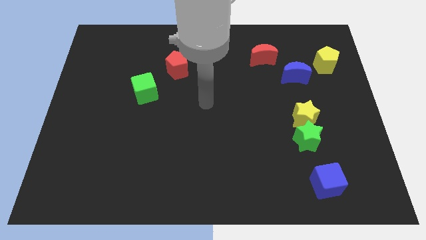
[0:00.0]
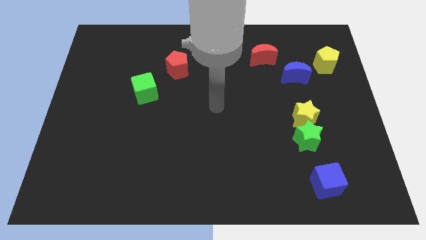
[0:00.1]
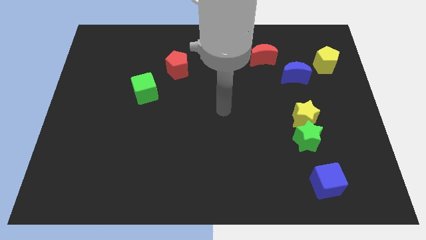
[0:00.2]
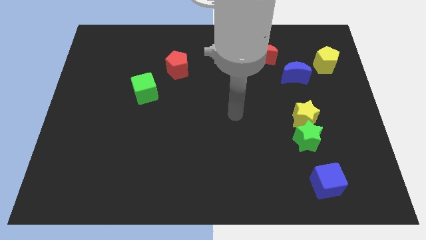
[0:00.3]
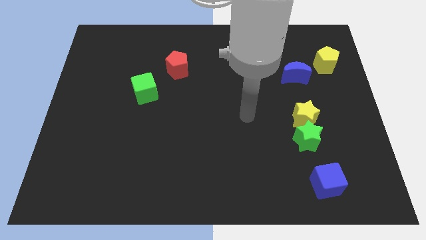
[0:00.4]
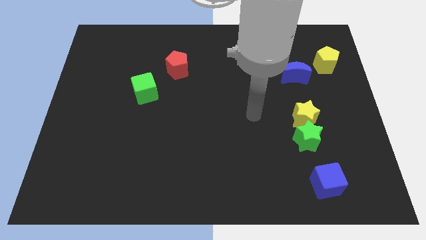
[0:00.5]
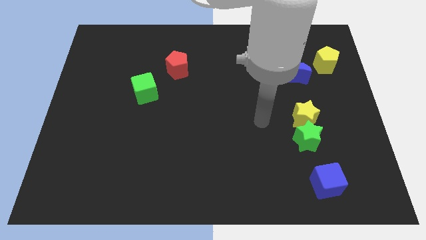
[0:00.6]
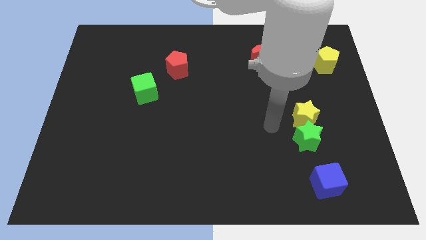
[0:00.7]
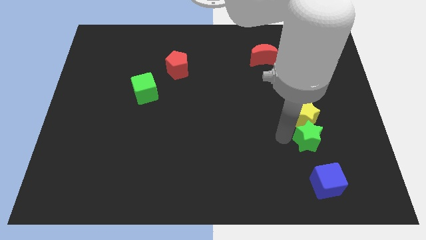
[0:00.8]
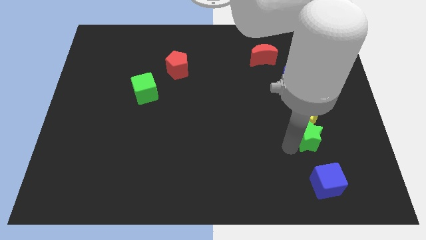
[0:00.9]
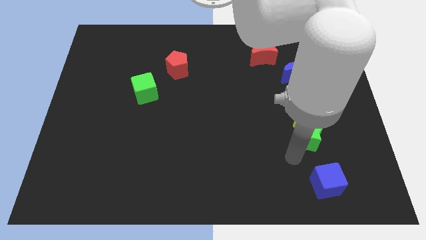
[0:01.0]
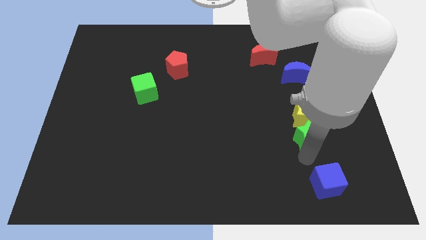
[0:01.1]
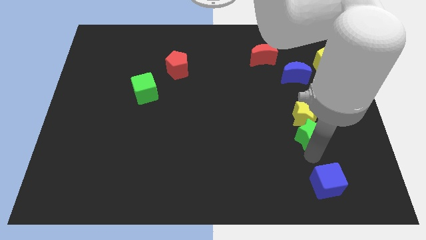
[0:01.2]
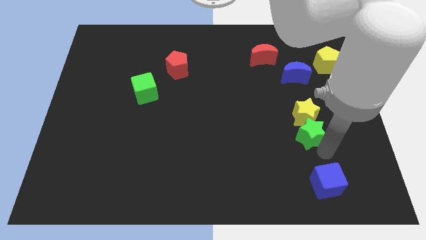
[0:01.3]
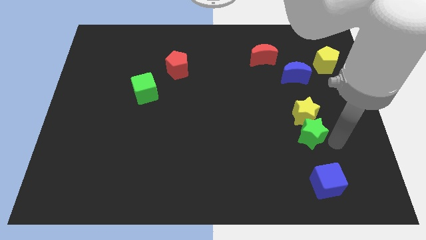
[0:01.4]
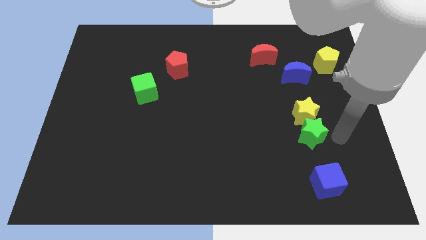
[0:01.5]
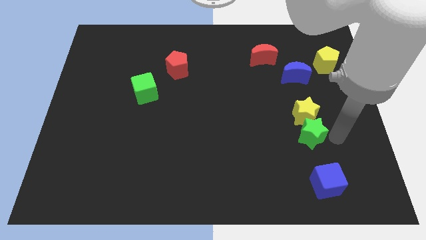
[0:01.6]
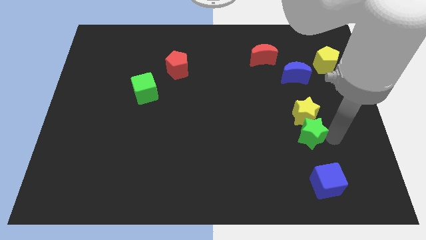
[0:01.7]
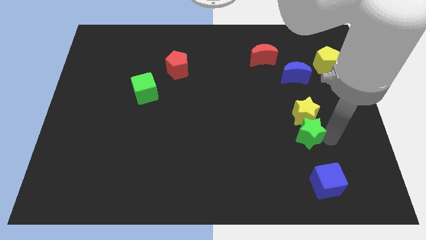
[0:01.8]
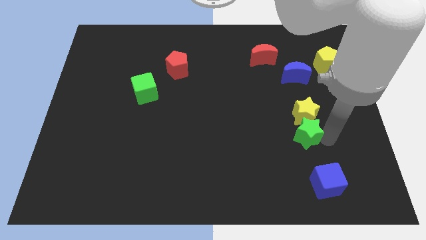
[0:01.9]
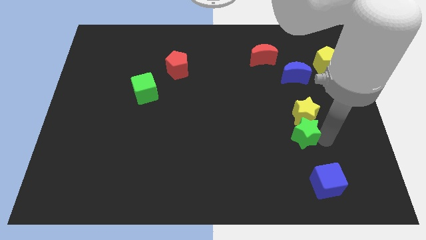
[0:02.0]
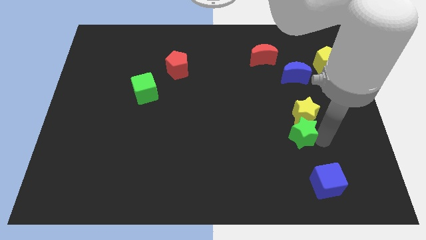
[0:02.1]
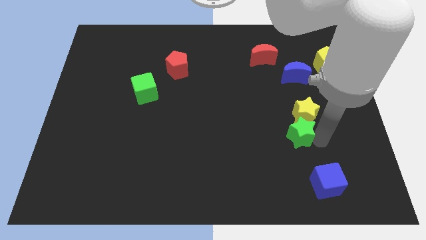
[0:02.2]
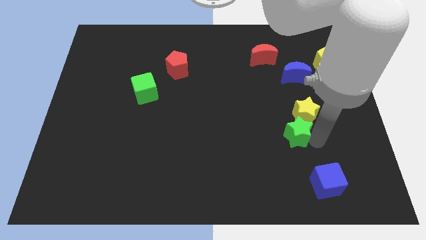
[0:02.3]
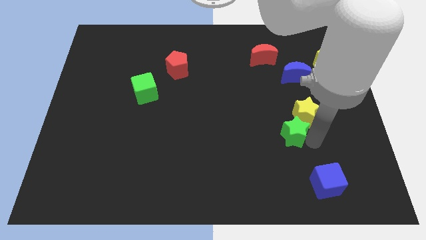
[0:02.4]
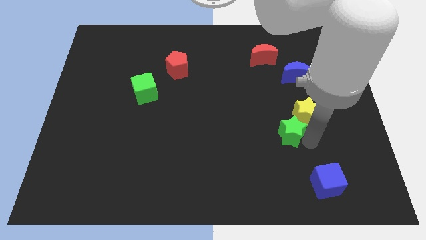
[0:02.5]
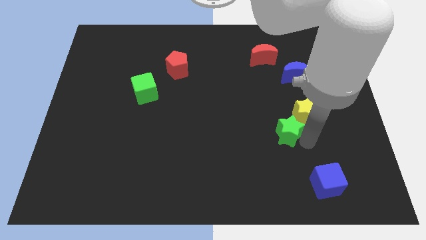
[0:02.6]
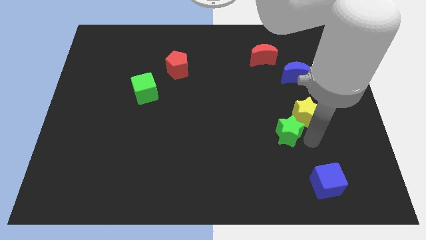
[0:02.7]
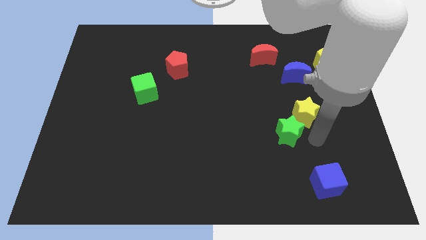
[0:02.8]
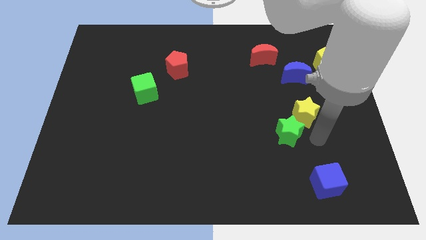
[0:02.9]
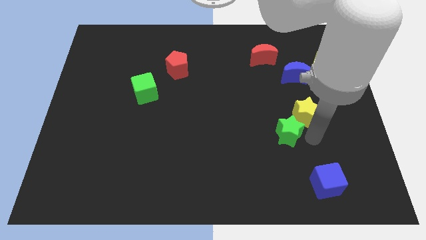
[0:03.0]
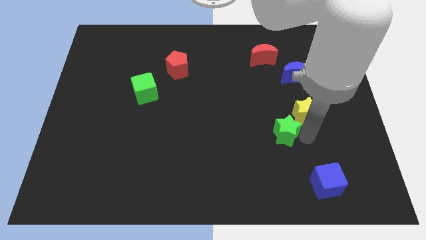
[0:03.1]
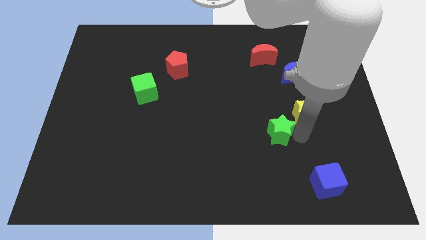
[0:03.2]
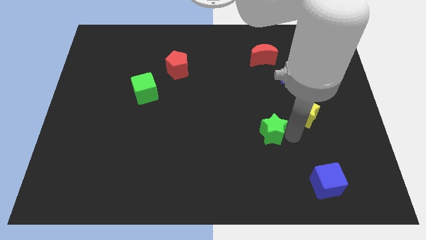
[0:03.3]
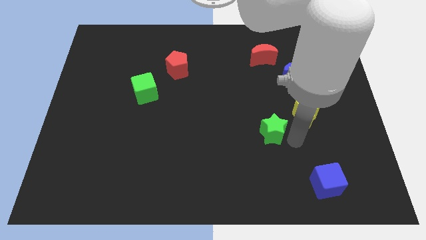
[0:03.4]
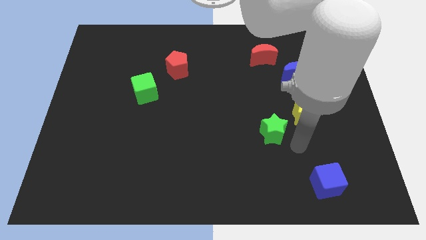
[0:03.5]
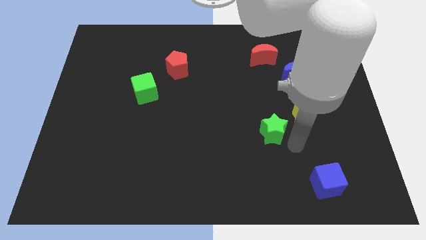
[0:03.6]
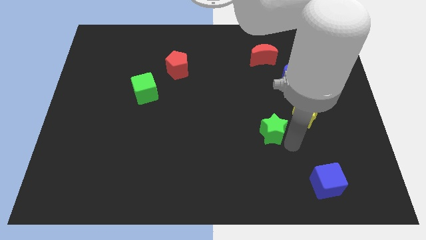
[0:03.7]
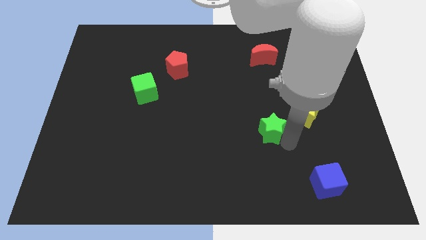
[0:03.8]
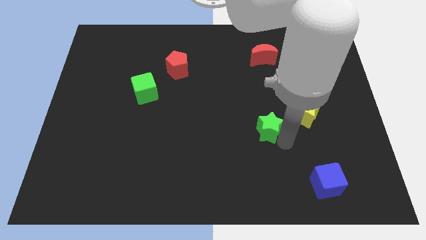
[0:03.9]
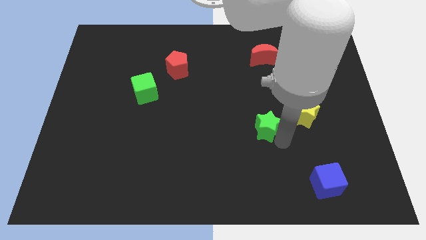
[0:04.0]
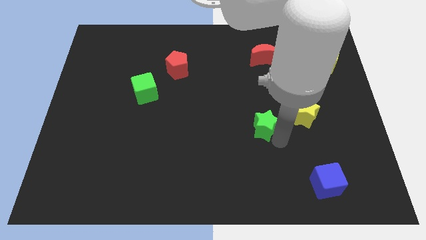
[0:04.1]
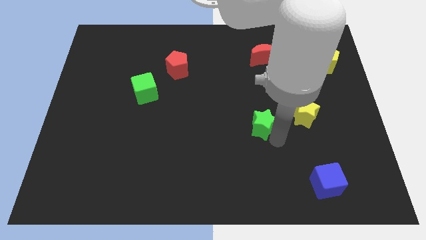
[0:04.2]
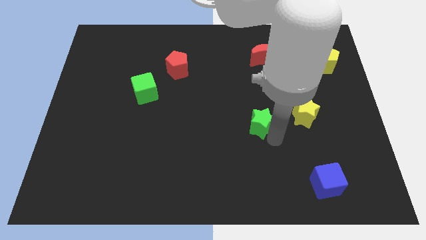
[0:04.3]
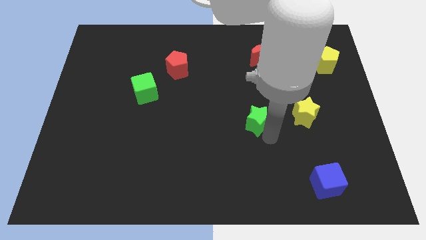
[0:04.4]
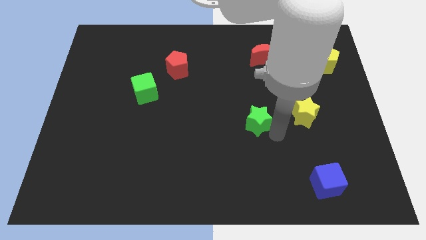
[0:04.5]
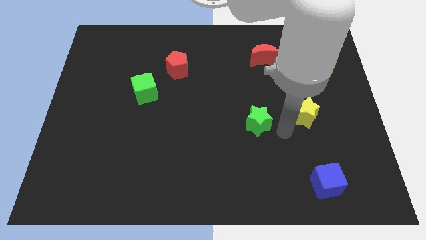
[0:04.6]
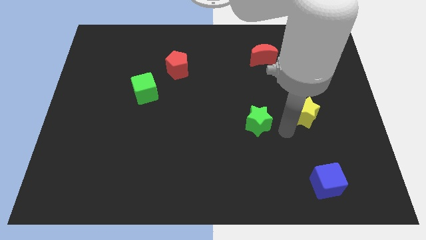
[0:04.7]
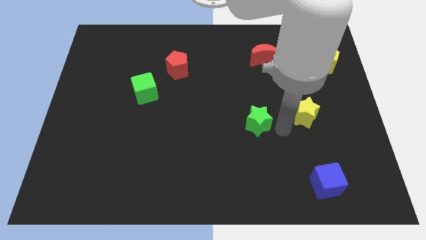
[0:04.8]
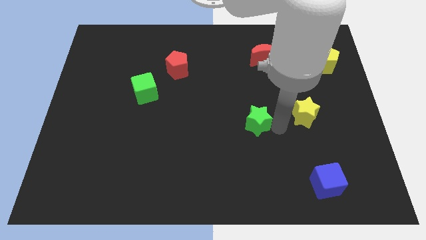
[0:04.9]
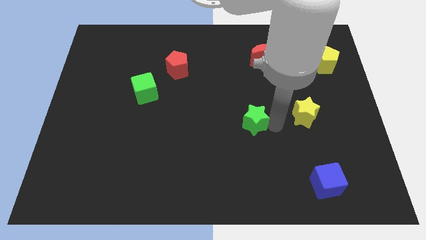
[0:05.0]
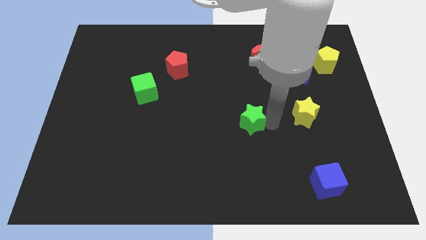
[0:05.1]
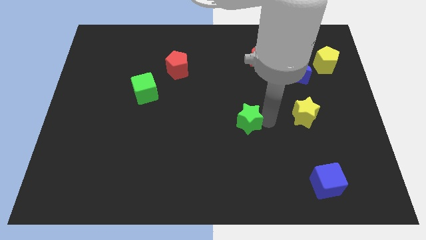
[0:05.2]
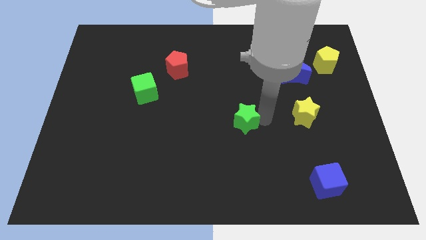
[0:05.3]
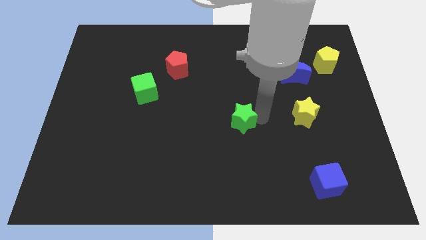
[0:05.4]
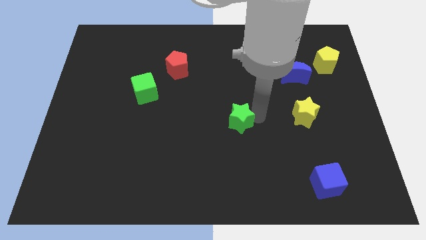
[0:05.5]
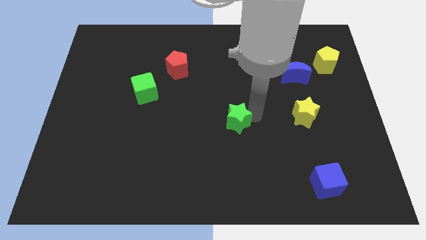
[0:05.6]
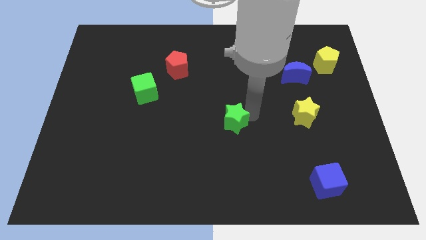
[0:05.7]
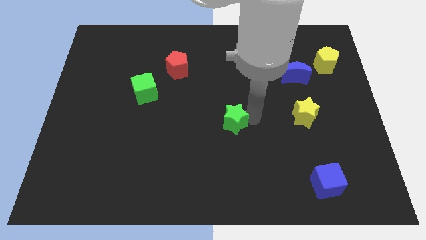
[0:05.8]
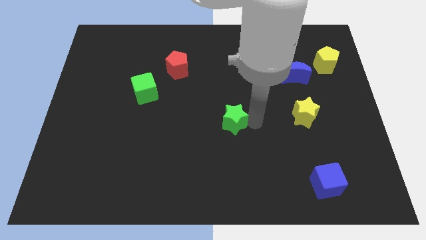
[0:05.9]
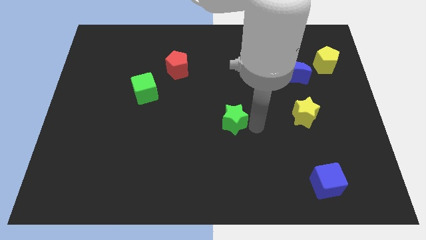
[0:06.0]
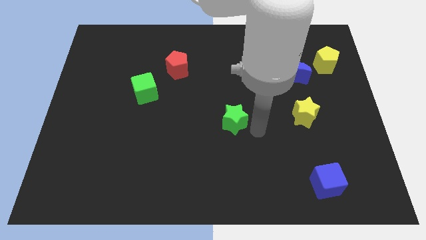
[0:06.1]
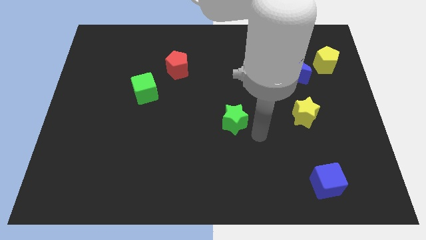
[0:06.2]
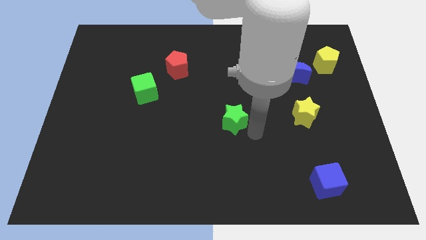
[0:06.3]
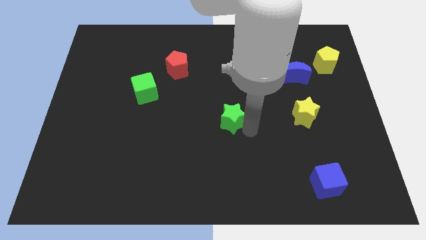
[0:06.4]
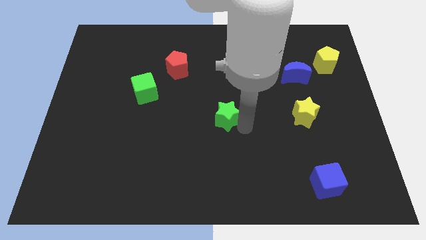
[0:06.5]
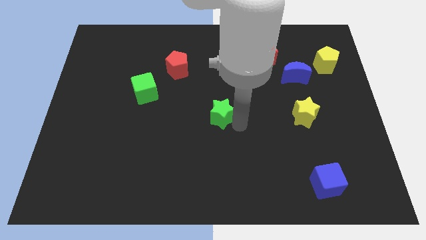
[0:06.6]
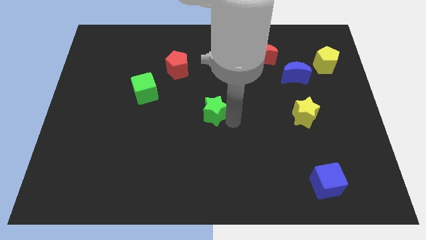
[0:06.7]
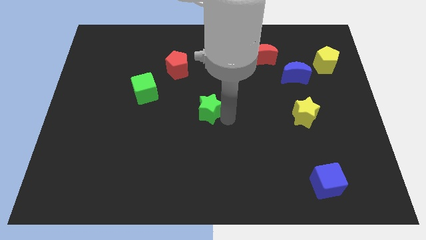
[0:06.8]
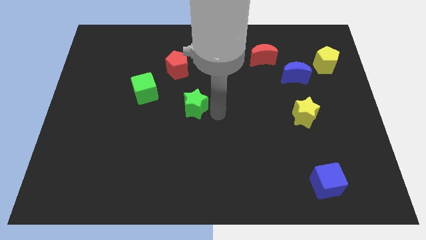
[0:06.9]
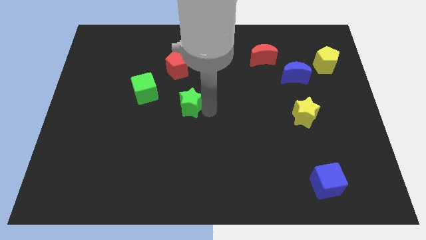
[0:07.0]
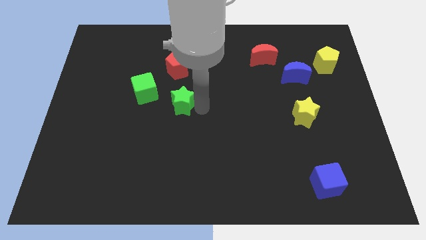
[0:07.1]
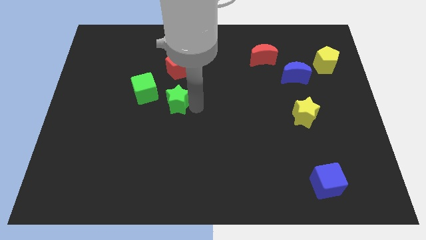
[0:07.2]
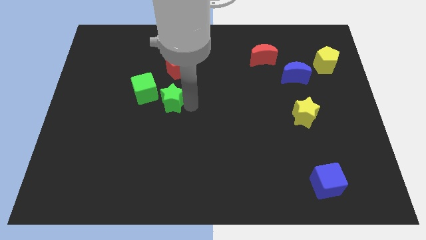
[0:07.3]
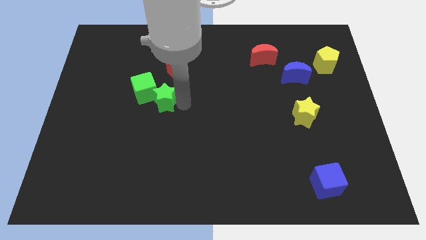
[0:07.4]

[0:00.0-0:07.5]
slide the green star next to the green cube

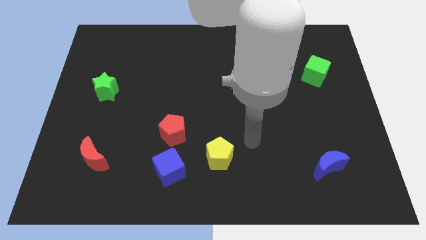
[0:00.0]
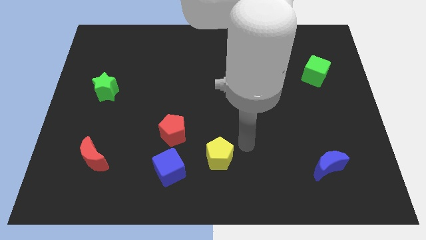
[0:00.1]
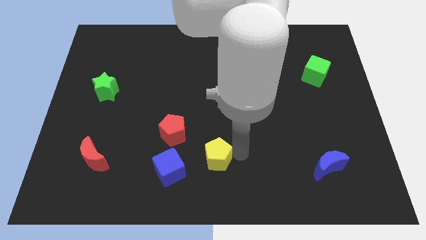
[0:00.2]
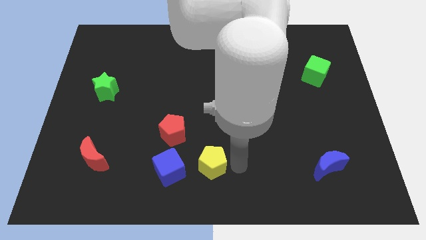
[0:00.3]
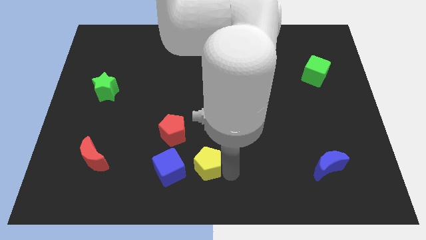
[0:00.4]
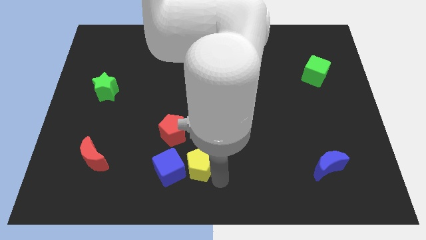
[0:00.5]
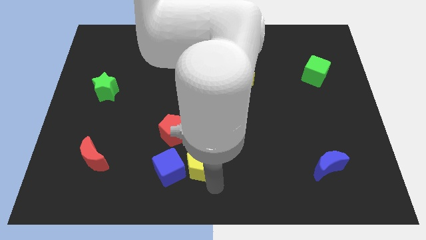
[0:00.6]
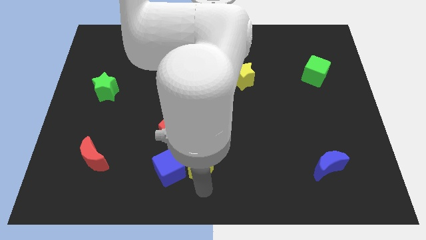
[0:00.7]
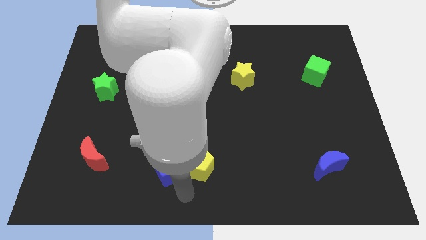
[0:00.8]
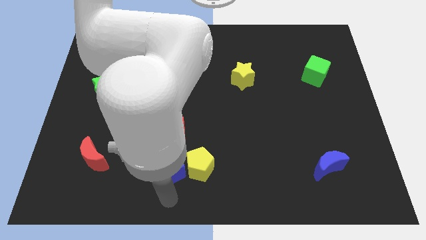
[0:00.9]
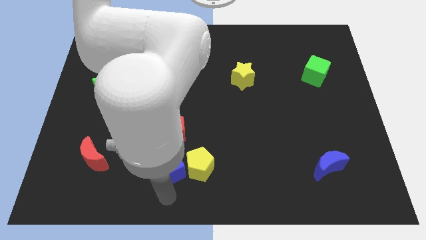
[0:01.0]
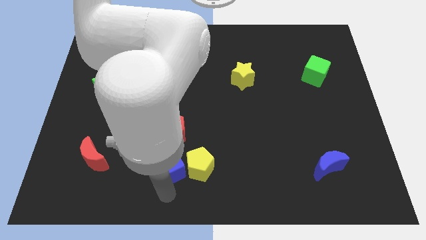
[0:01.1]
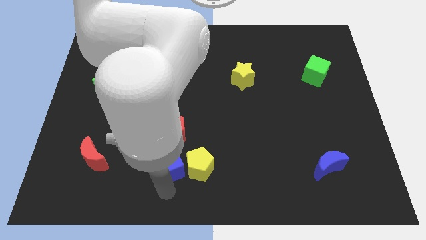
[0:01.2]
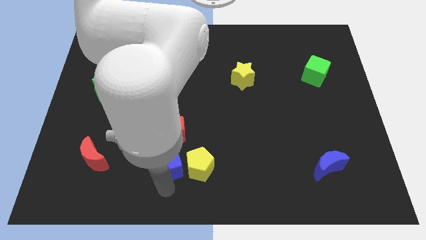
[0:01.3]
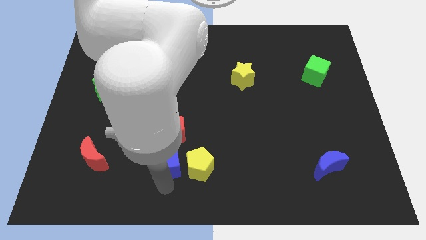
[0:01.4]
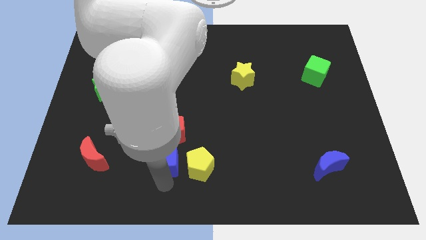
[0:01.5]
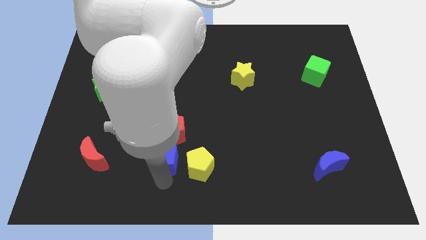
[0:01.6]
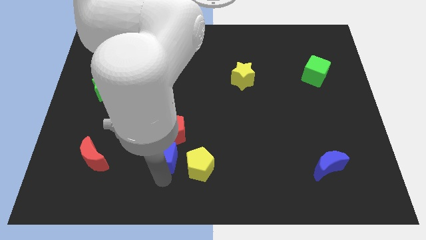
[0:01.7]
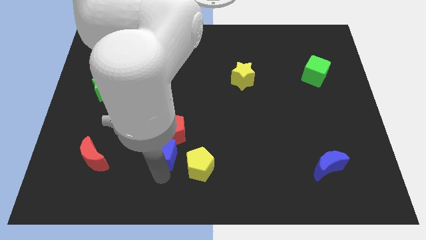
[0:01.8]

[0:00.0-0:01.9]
slide the blue cube next to the red pentagon
